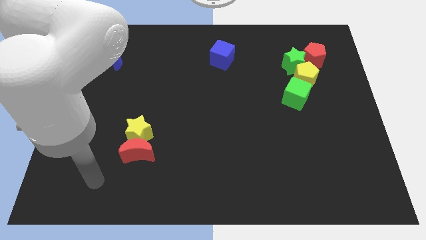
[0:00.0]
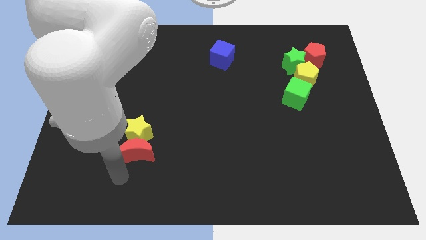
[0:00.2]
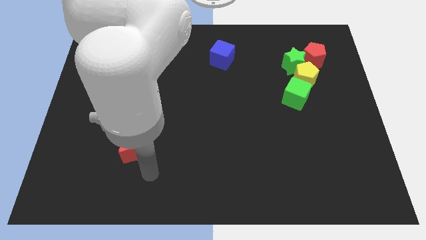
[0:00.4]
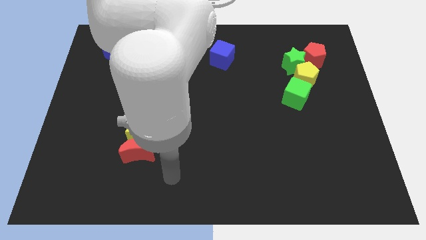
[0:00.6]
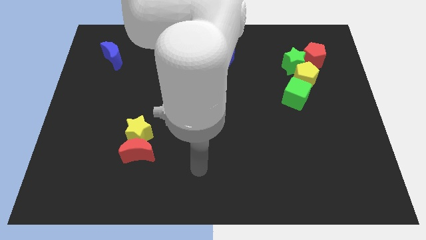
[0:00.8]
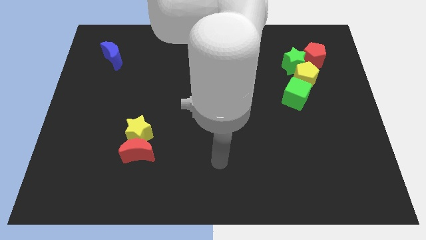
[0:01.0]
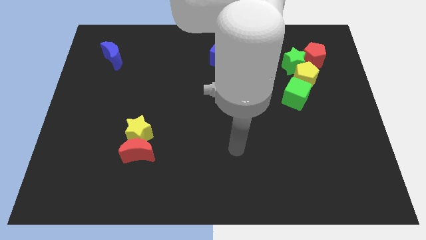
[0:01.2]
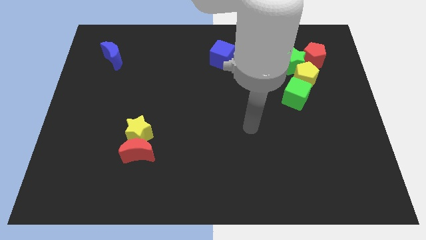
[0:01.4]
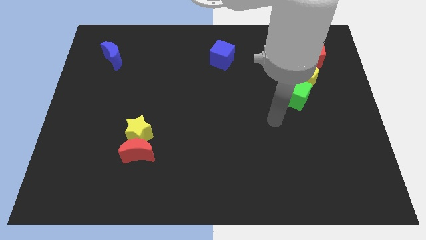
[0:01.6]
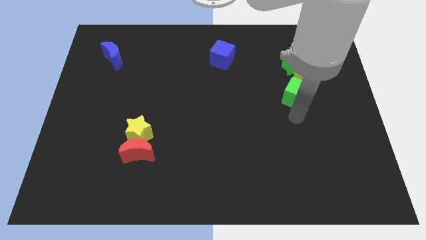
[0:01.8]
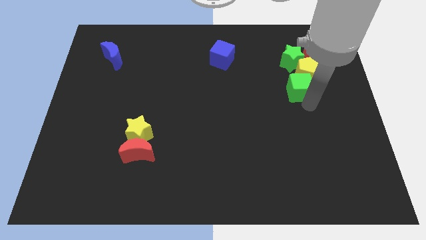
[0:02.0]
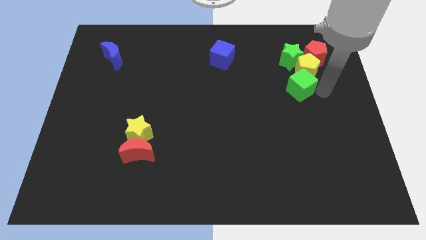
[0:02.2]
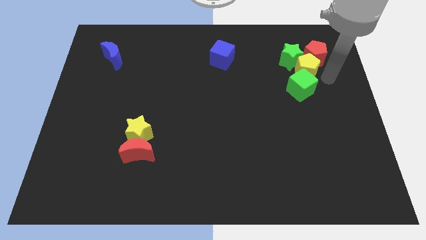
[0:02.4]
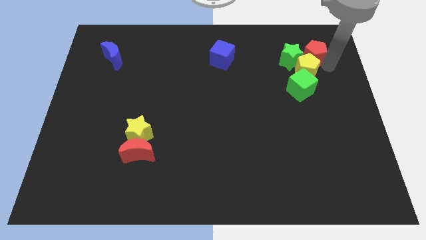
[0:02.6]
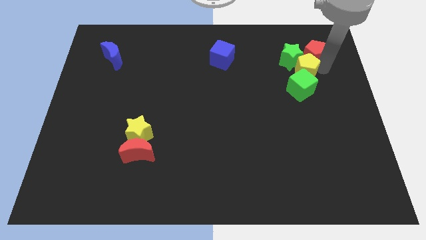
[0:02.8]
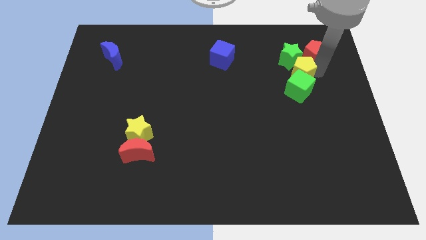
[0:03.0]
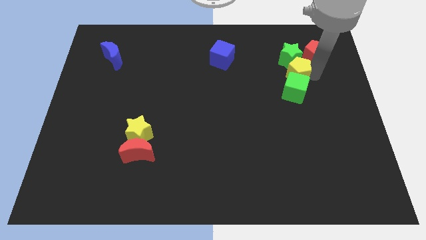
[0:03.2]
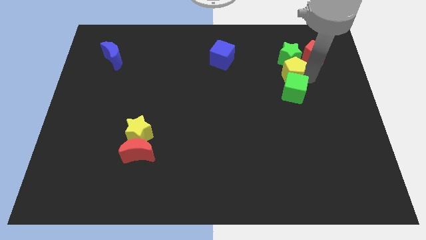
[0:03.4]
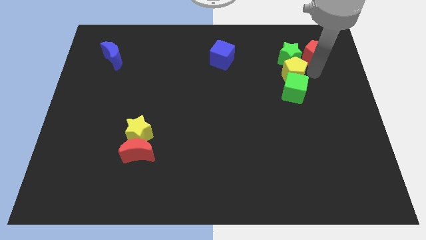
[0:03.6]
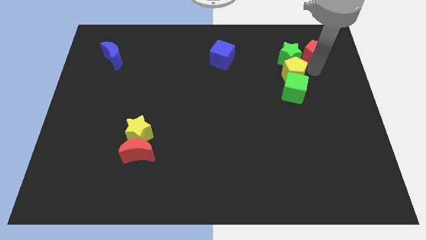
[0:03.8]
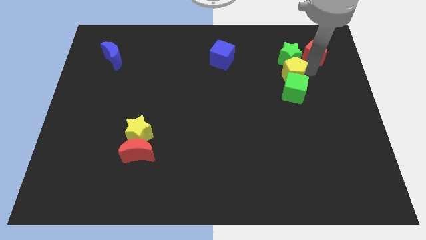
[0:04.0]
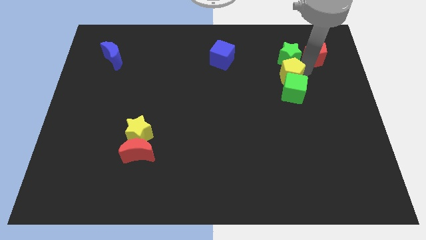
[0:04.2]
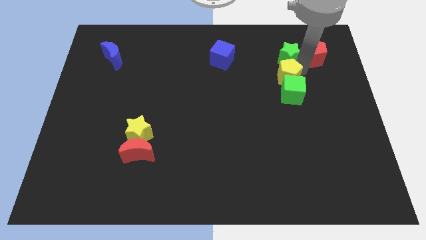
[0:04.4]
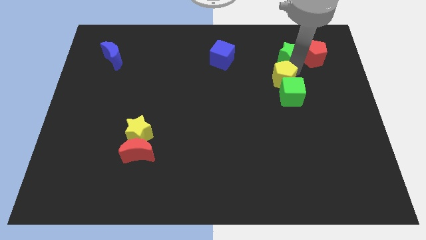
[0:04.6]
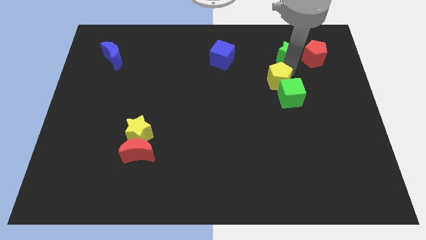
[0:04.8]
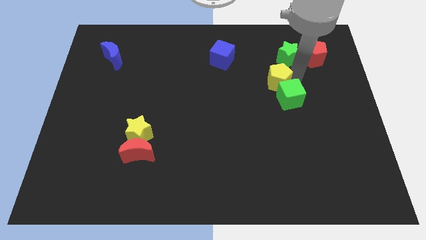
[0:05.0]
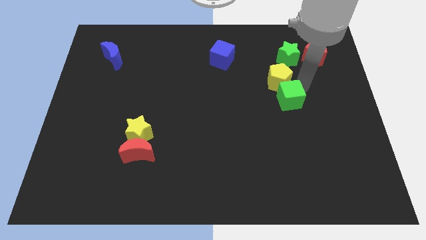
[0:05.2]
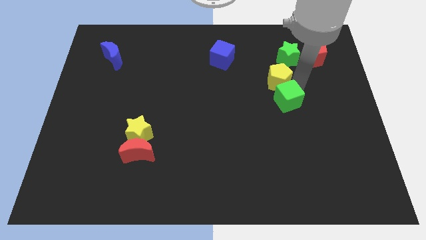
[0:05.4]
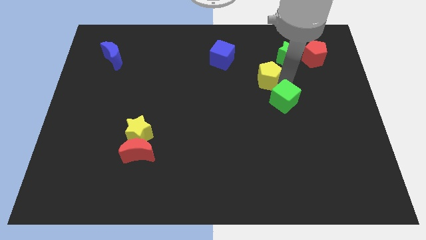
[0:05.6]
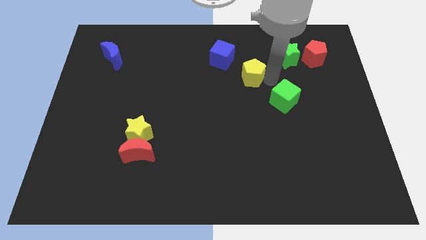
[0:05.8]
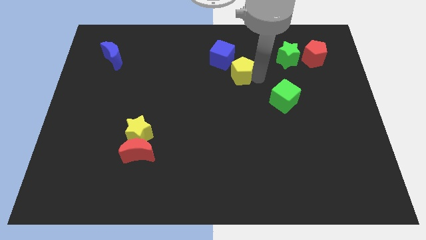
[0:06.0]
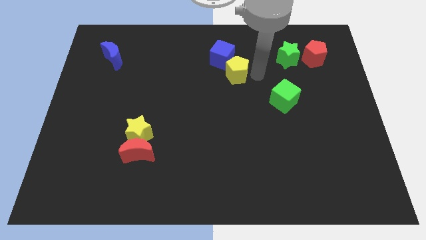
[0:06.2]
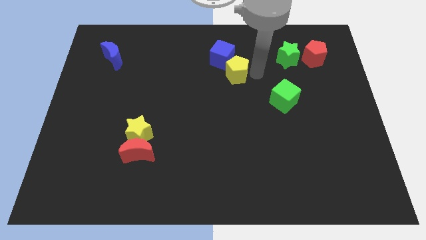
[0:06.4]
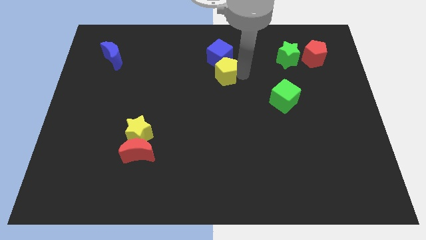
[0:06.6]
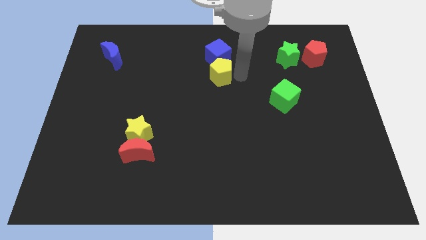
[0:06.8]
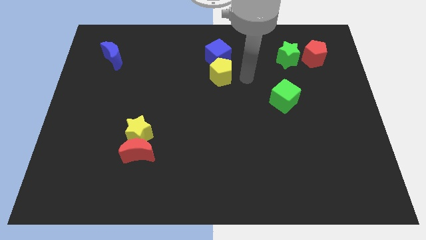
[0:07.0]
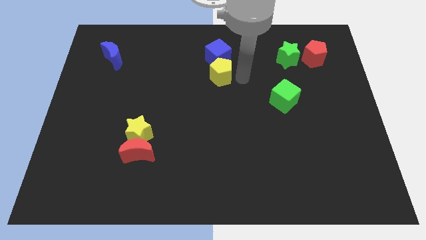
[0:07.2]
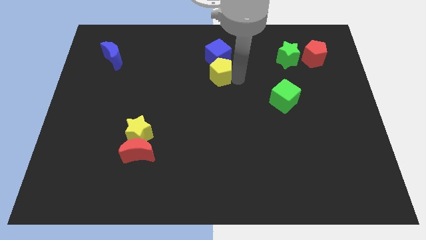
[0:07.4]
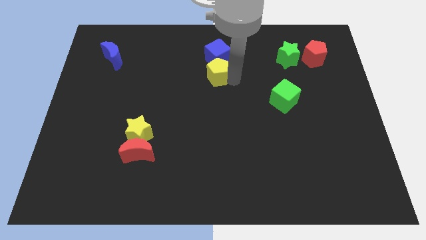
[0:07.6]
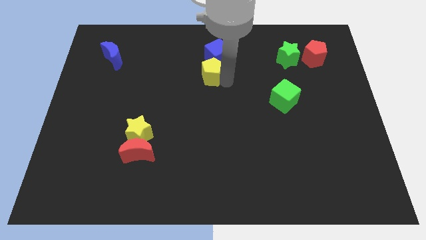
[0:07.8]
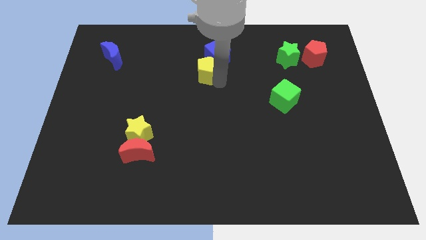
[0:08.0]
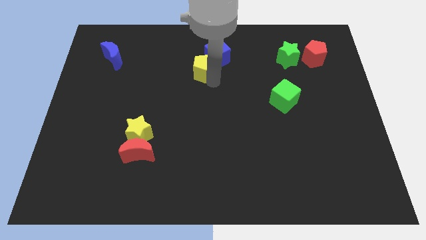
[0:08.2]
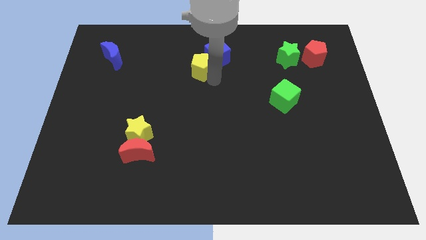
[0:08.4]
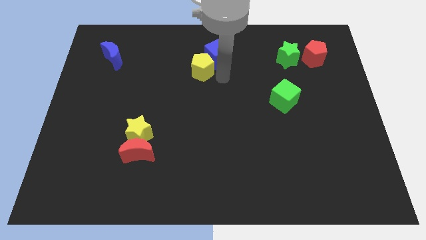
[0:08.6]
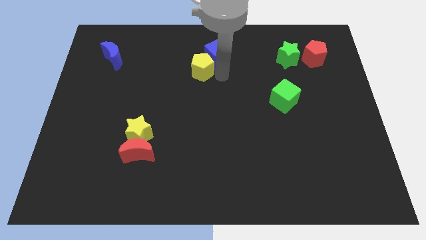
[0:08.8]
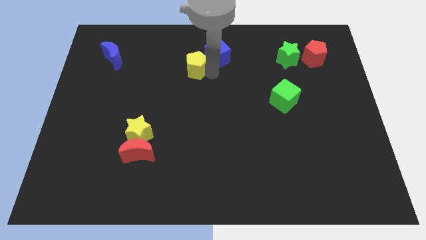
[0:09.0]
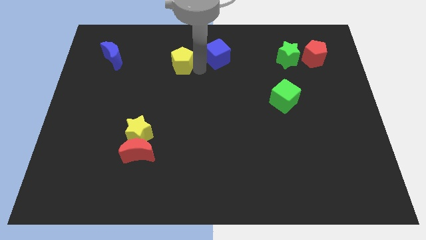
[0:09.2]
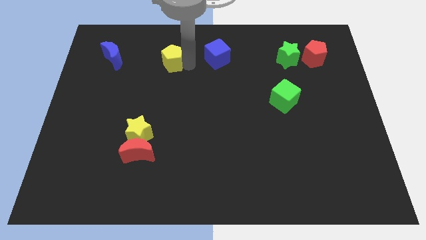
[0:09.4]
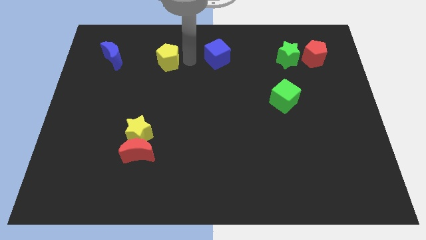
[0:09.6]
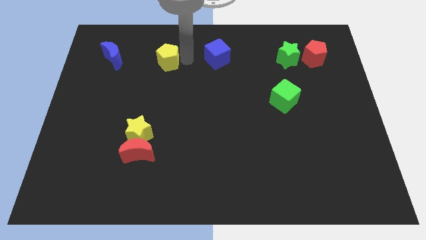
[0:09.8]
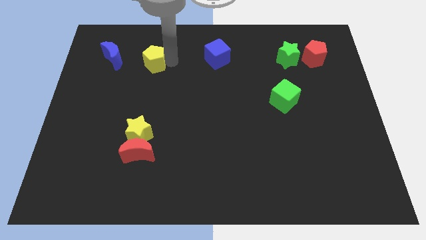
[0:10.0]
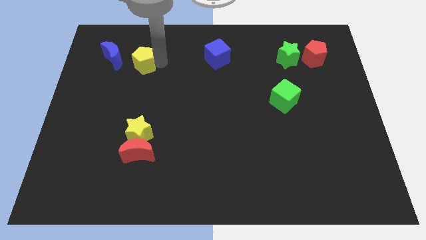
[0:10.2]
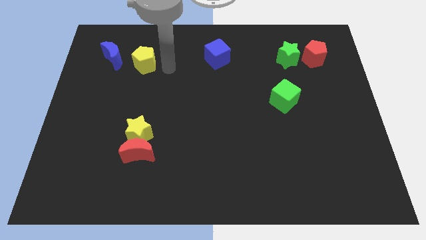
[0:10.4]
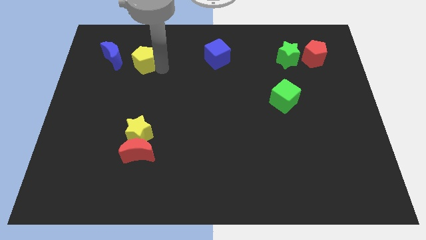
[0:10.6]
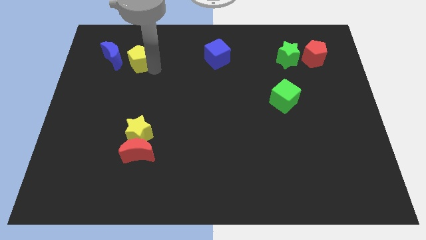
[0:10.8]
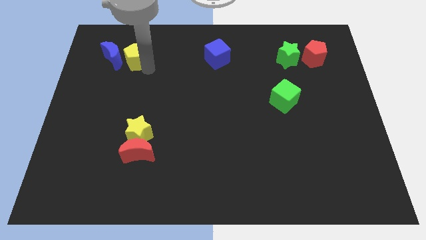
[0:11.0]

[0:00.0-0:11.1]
push the yellow pentagon towards the blue moon

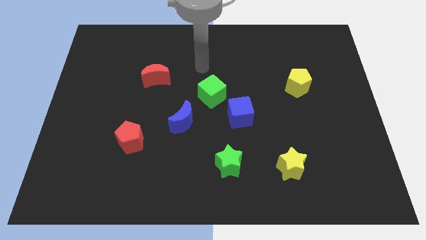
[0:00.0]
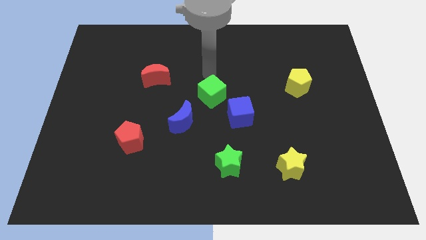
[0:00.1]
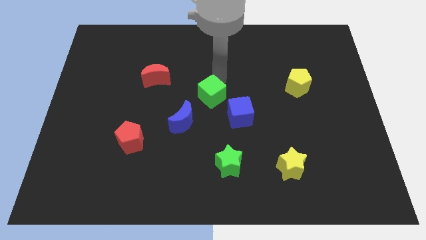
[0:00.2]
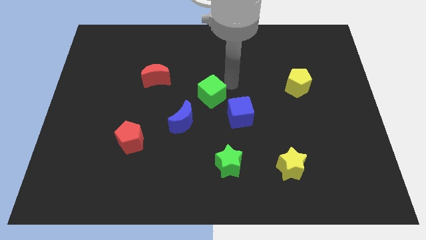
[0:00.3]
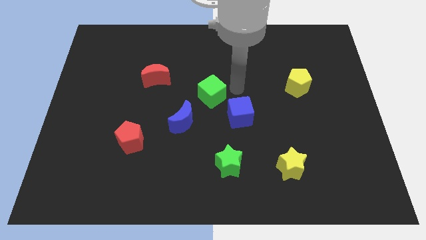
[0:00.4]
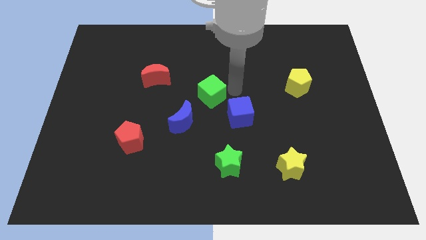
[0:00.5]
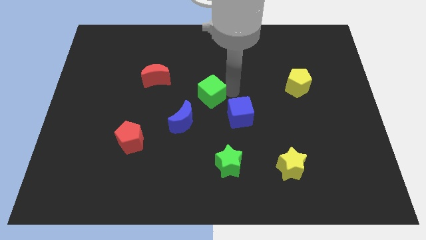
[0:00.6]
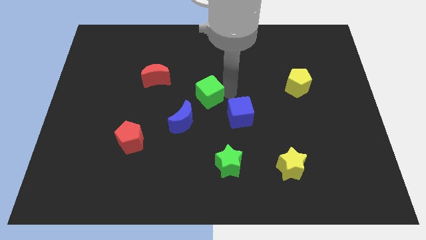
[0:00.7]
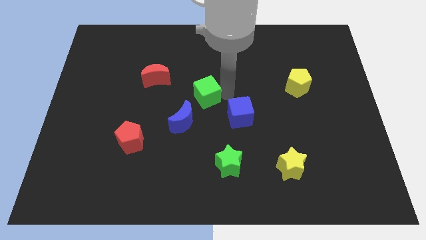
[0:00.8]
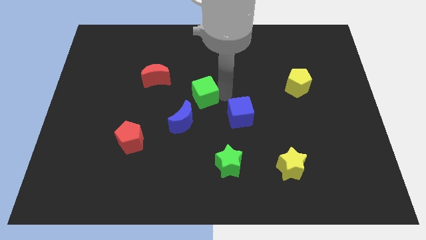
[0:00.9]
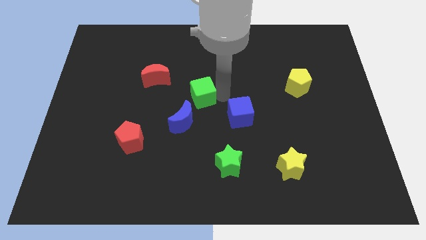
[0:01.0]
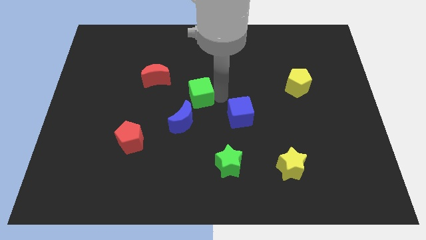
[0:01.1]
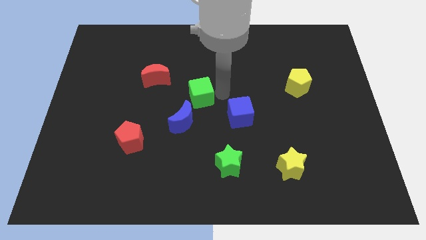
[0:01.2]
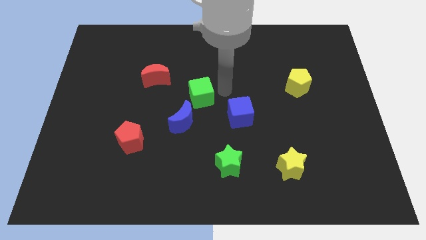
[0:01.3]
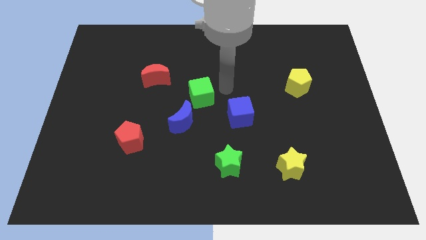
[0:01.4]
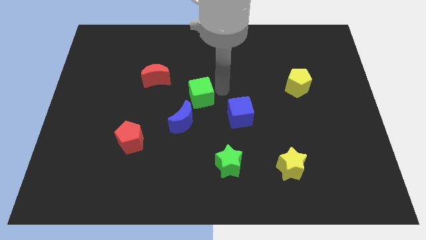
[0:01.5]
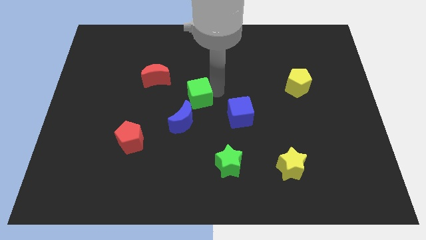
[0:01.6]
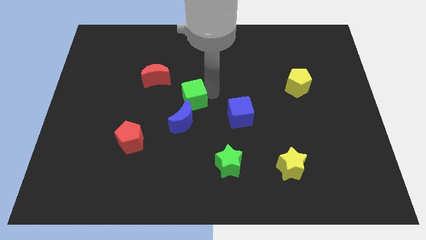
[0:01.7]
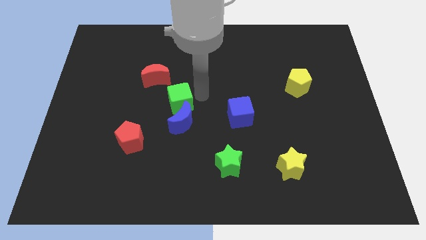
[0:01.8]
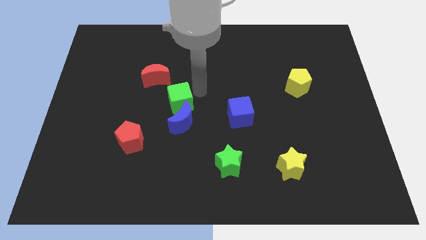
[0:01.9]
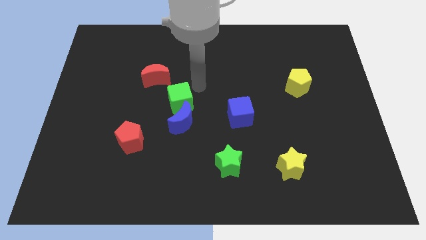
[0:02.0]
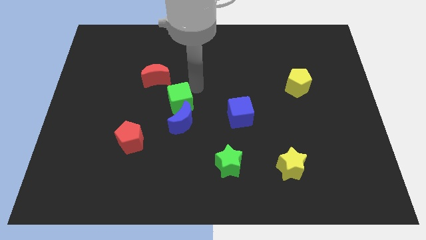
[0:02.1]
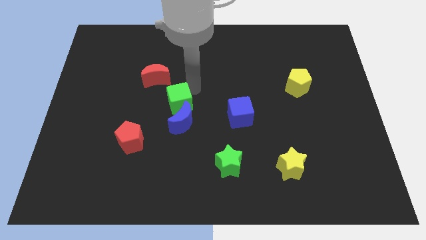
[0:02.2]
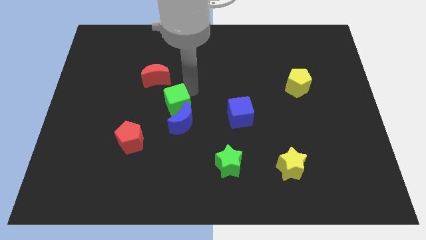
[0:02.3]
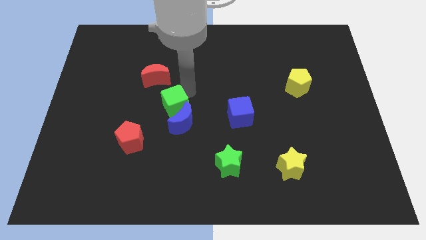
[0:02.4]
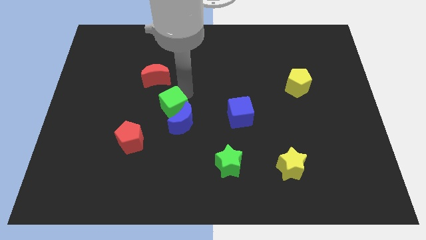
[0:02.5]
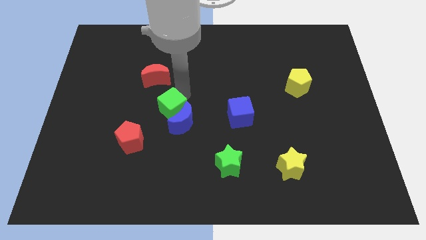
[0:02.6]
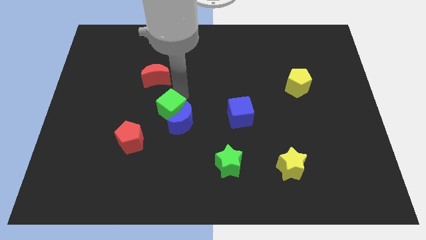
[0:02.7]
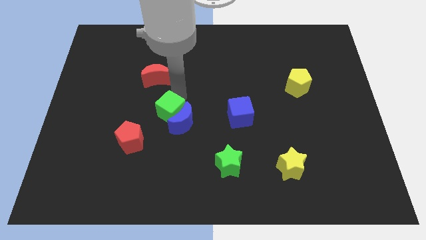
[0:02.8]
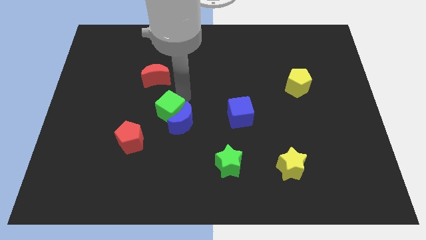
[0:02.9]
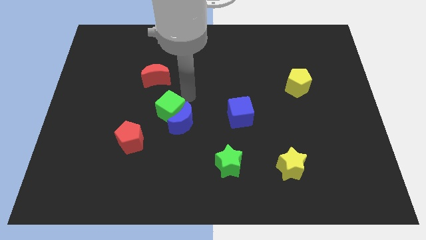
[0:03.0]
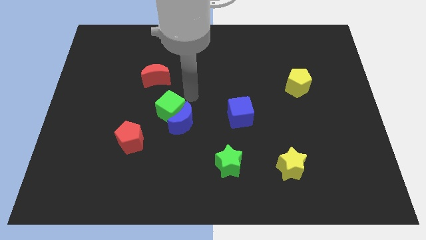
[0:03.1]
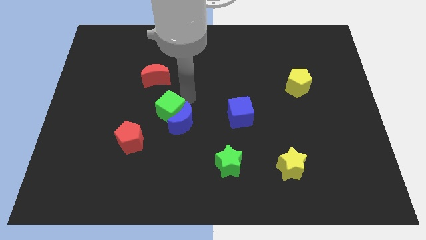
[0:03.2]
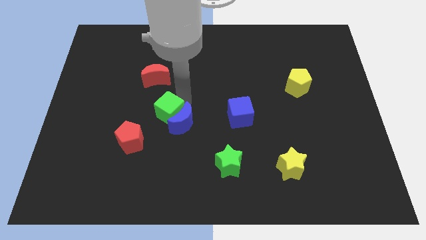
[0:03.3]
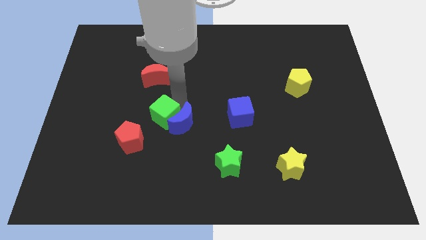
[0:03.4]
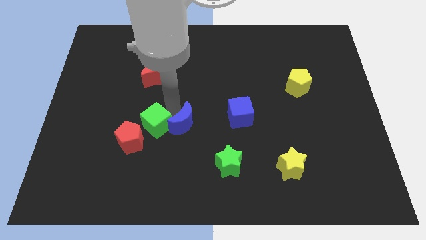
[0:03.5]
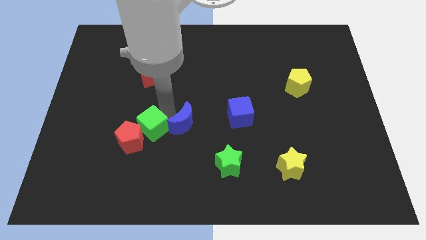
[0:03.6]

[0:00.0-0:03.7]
put the green cube next to the red pentagon
